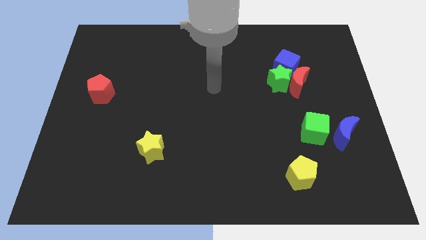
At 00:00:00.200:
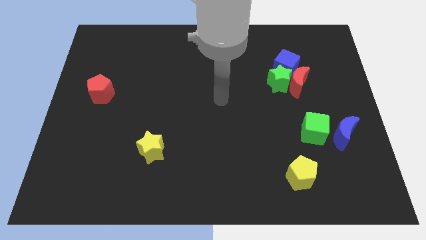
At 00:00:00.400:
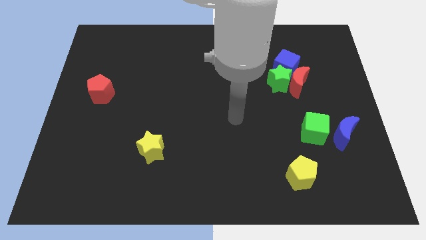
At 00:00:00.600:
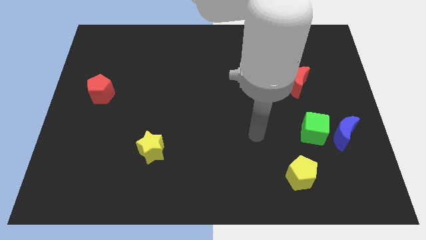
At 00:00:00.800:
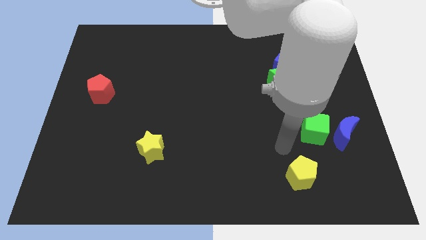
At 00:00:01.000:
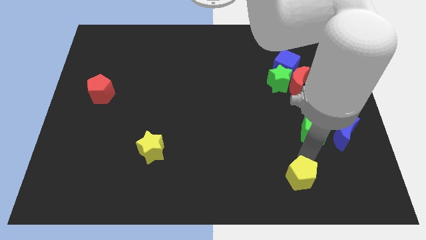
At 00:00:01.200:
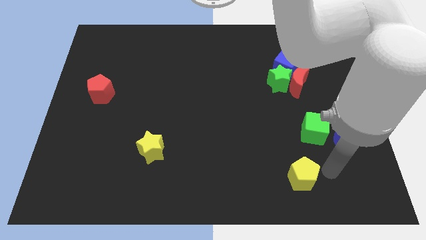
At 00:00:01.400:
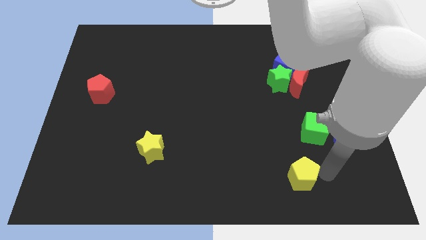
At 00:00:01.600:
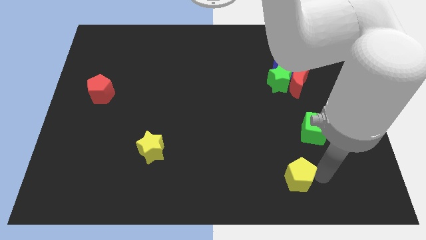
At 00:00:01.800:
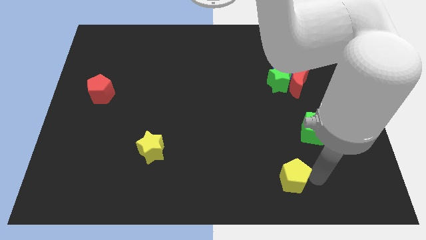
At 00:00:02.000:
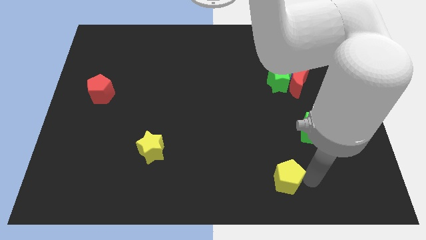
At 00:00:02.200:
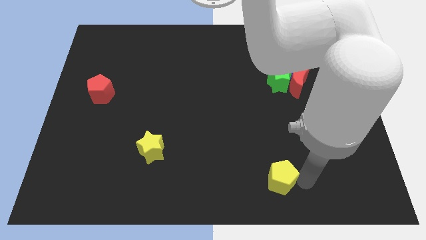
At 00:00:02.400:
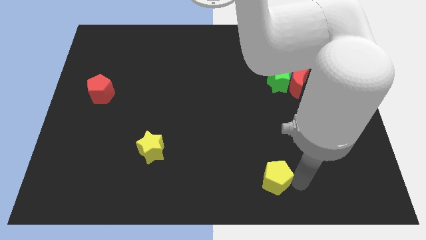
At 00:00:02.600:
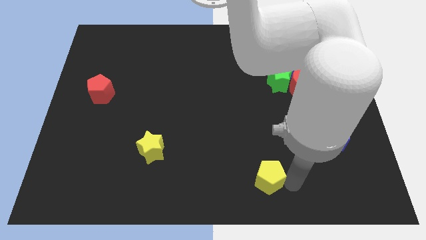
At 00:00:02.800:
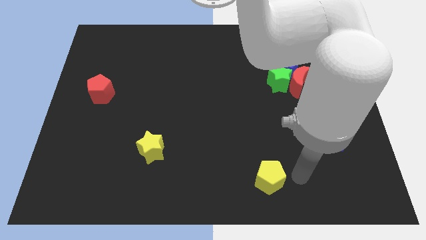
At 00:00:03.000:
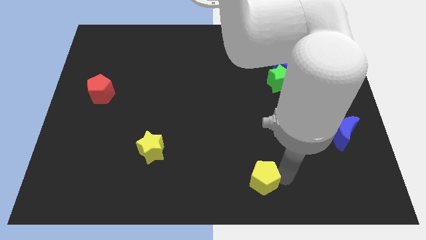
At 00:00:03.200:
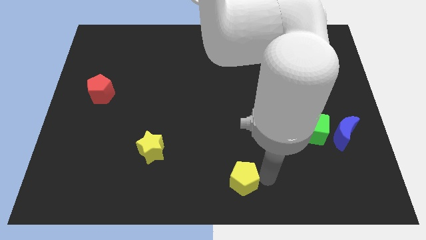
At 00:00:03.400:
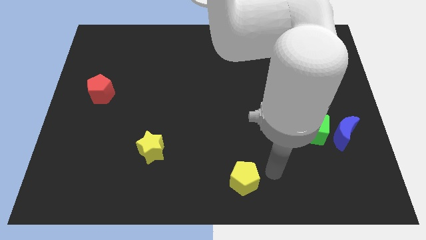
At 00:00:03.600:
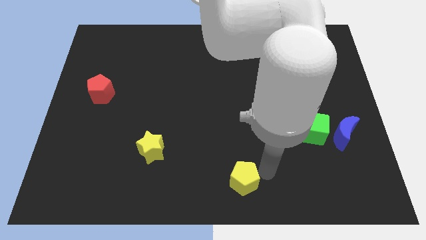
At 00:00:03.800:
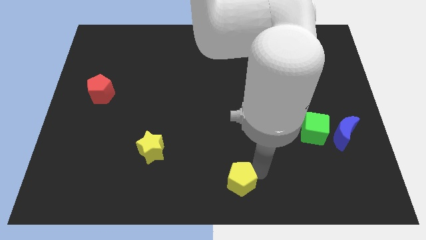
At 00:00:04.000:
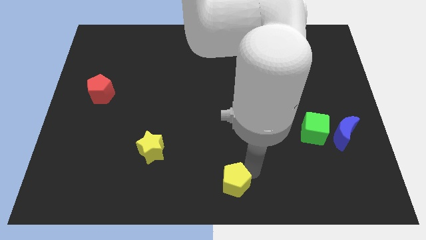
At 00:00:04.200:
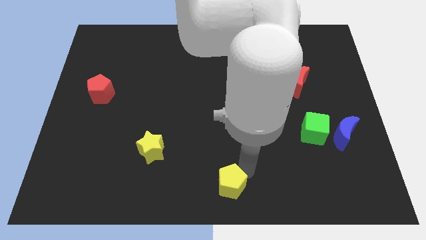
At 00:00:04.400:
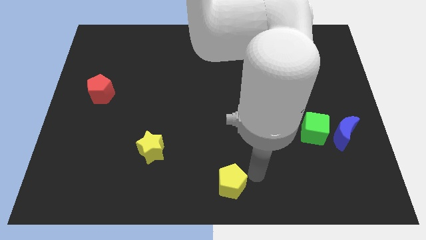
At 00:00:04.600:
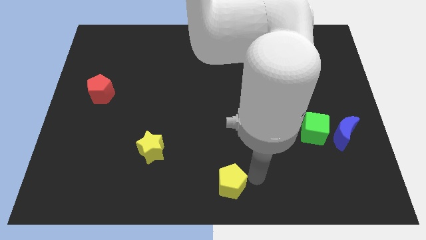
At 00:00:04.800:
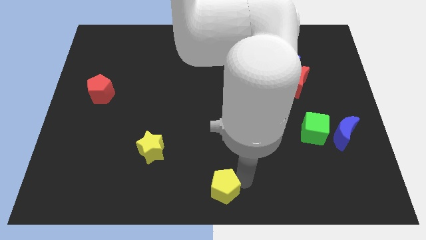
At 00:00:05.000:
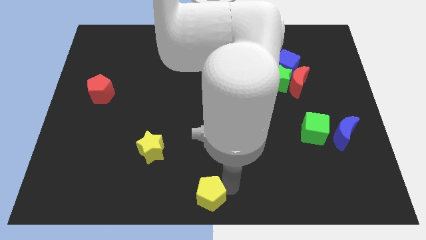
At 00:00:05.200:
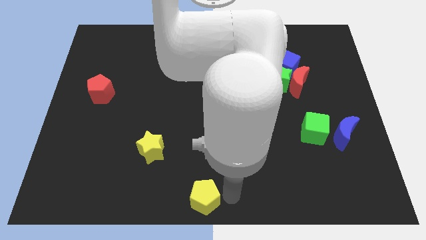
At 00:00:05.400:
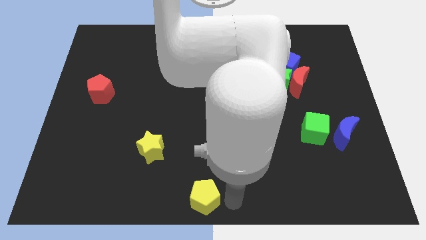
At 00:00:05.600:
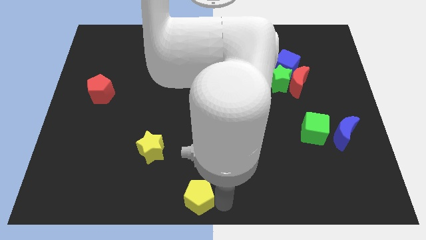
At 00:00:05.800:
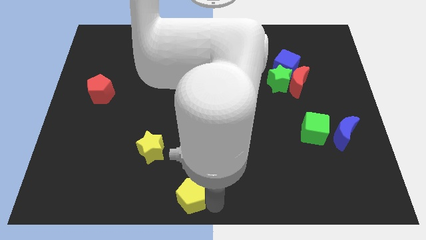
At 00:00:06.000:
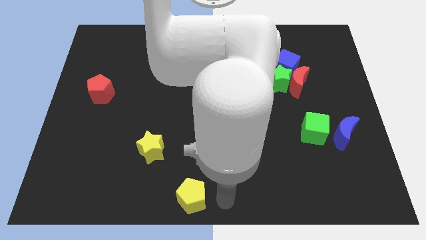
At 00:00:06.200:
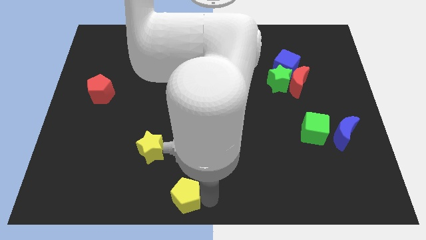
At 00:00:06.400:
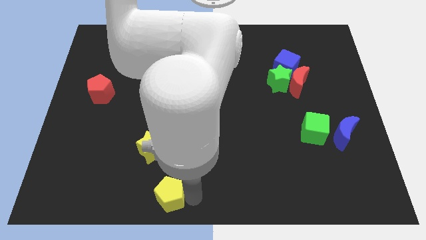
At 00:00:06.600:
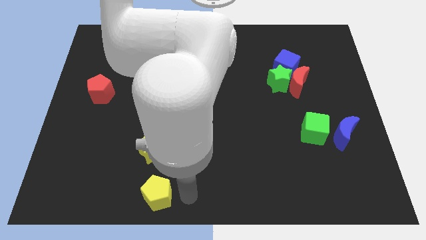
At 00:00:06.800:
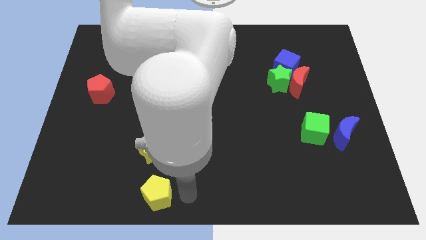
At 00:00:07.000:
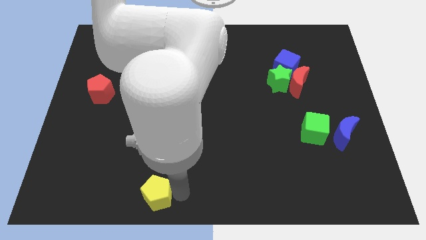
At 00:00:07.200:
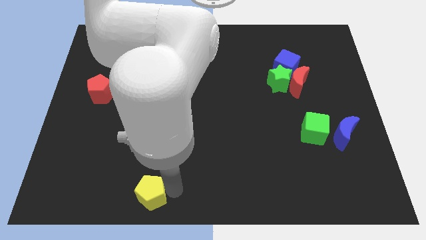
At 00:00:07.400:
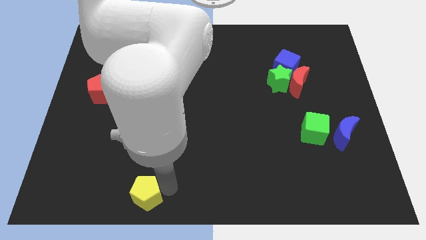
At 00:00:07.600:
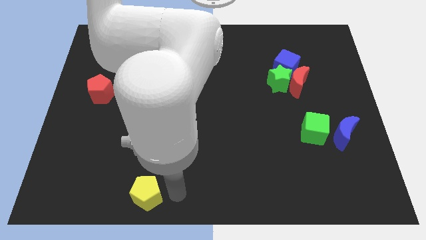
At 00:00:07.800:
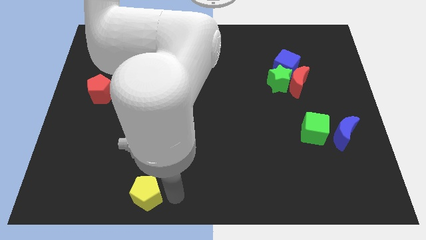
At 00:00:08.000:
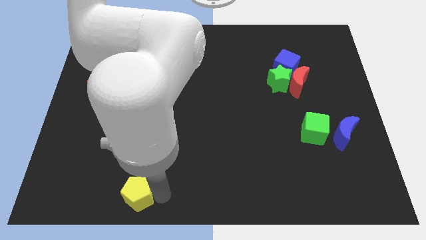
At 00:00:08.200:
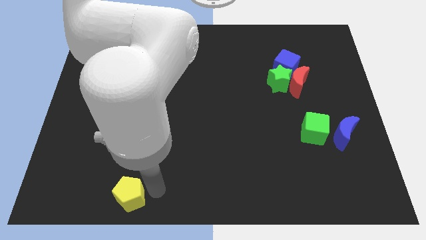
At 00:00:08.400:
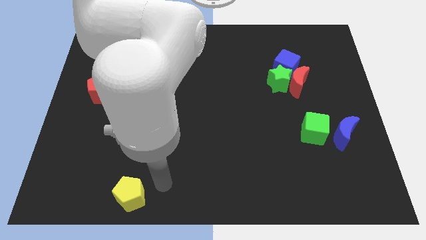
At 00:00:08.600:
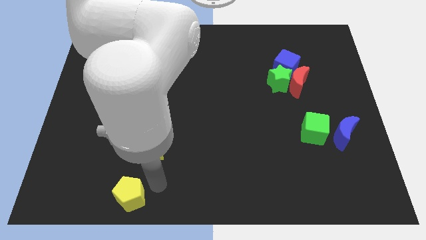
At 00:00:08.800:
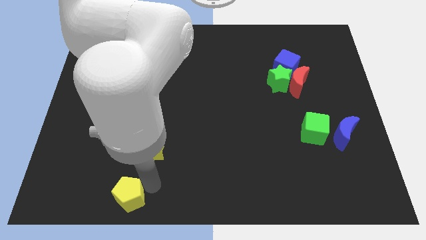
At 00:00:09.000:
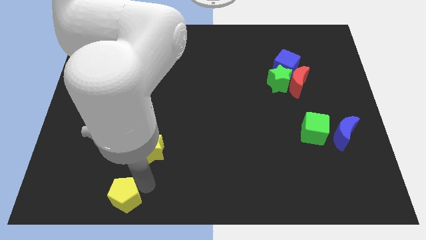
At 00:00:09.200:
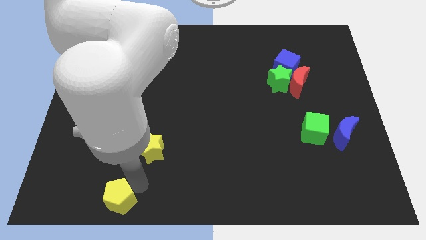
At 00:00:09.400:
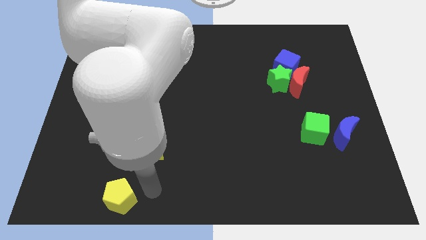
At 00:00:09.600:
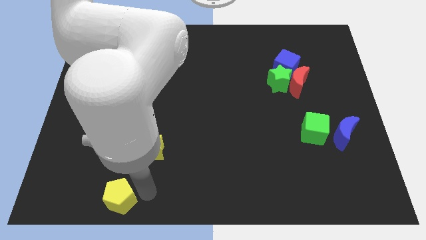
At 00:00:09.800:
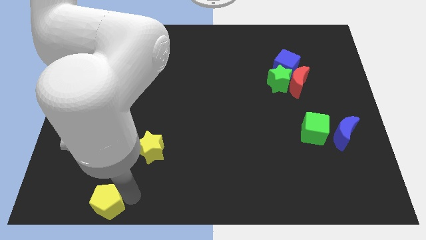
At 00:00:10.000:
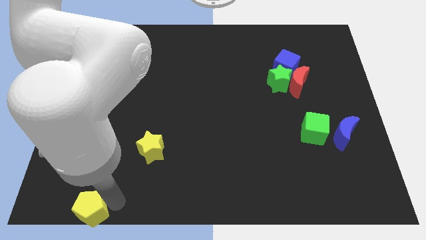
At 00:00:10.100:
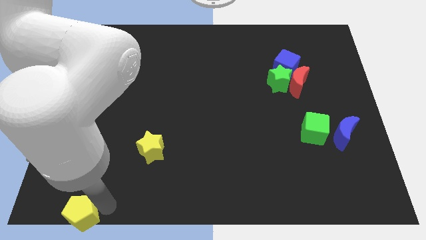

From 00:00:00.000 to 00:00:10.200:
move the yellow pentagon to the bottom left

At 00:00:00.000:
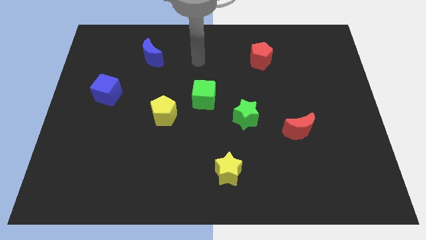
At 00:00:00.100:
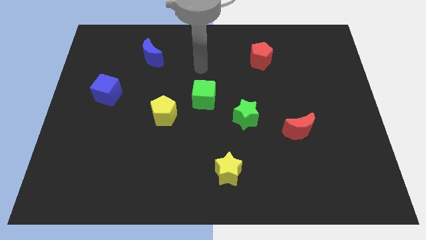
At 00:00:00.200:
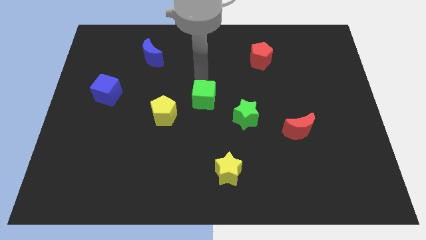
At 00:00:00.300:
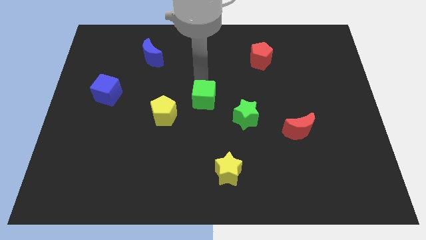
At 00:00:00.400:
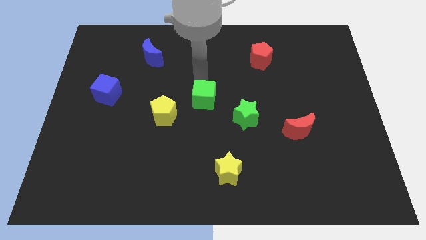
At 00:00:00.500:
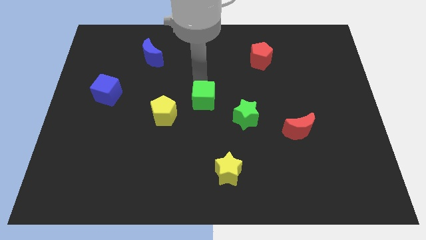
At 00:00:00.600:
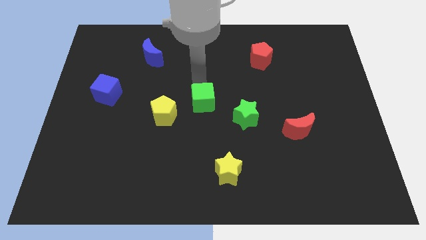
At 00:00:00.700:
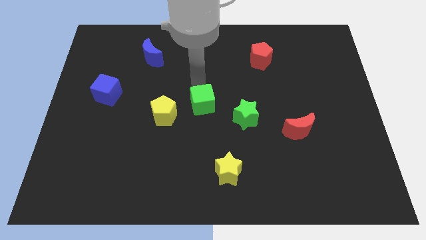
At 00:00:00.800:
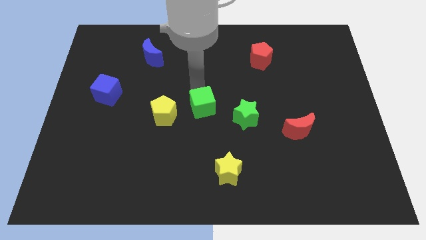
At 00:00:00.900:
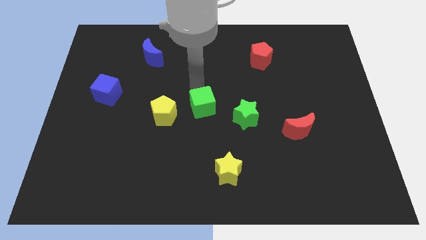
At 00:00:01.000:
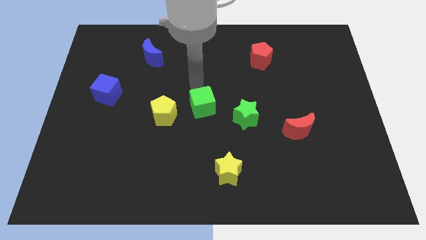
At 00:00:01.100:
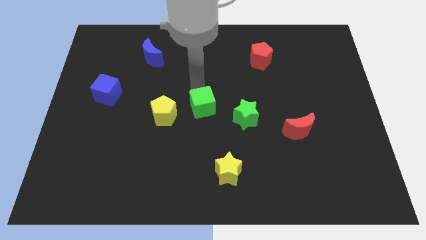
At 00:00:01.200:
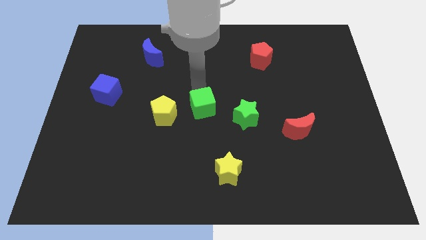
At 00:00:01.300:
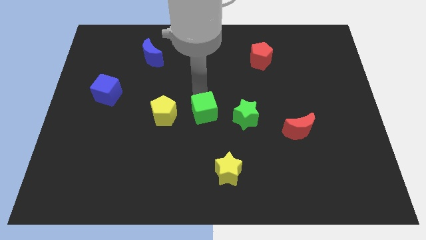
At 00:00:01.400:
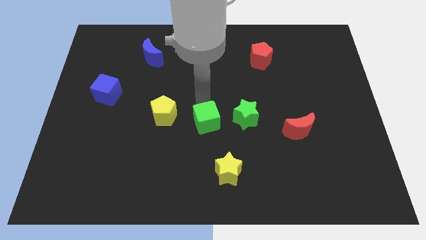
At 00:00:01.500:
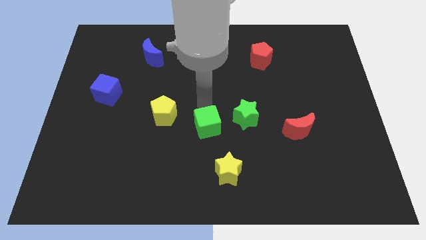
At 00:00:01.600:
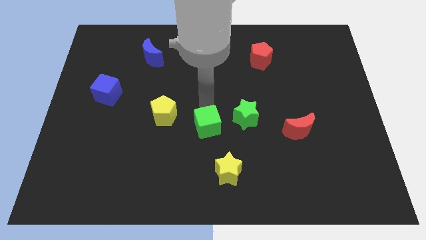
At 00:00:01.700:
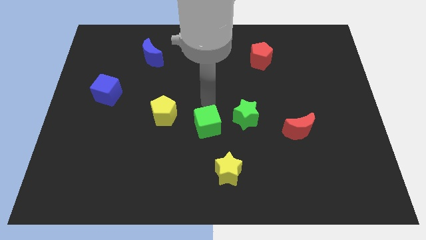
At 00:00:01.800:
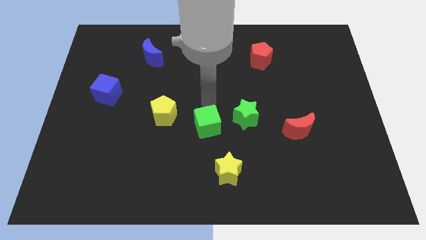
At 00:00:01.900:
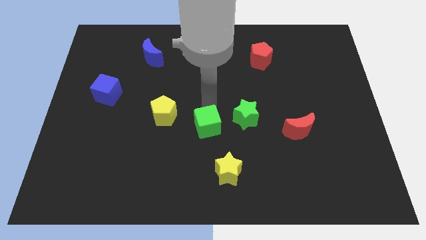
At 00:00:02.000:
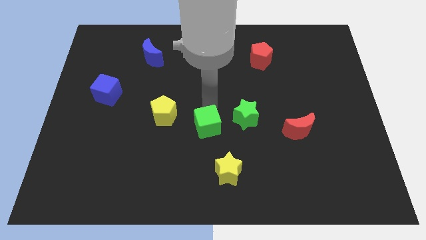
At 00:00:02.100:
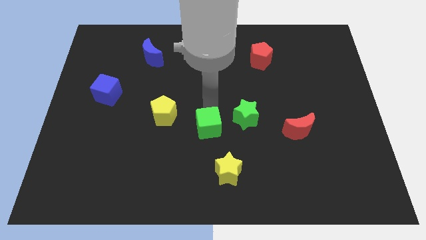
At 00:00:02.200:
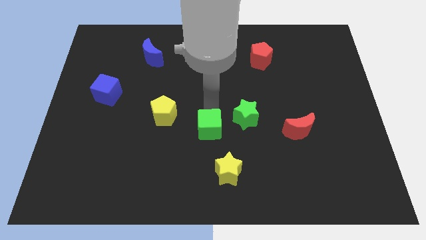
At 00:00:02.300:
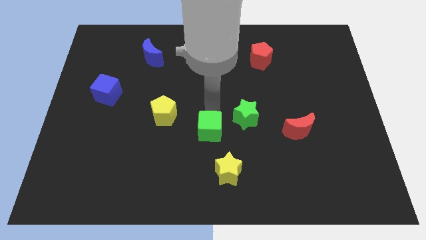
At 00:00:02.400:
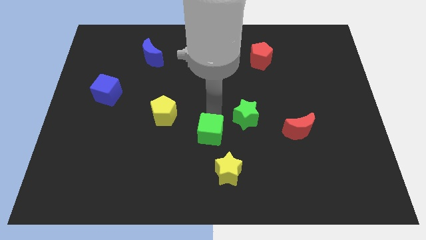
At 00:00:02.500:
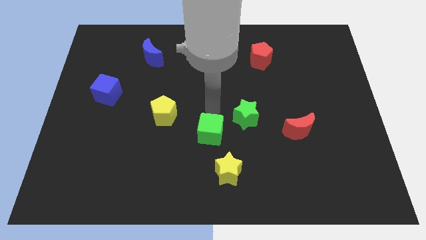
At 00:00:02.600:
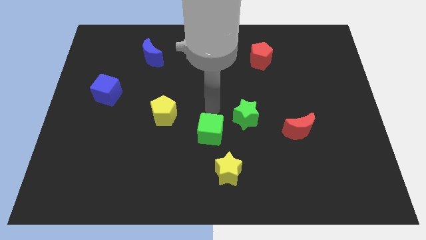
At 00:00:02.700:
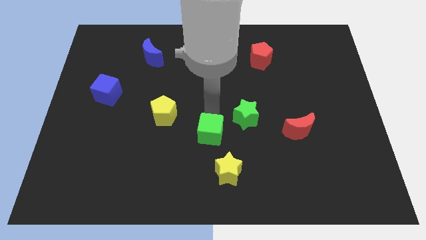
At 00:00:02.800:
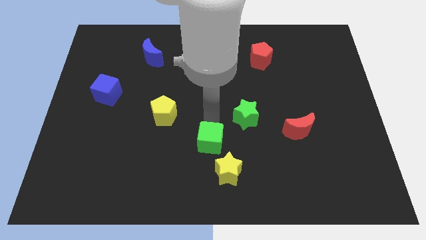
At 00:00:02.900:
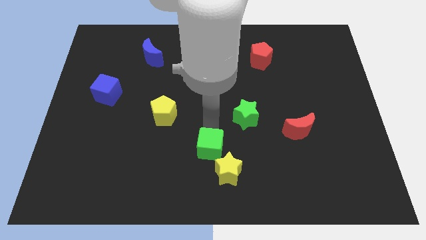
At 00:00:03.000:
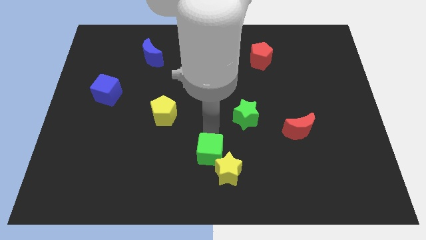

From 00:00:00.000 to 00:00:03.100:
move the green cube to the bottom
